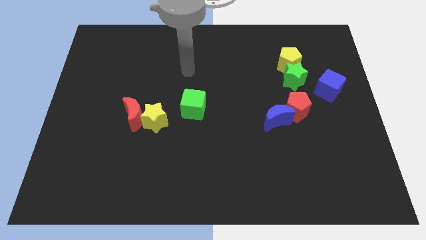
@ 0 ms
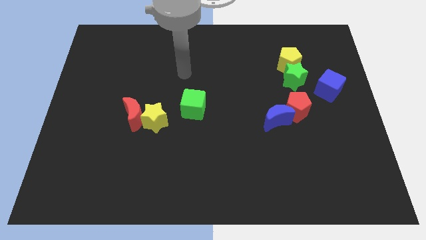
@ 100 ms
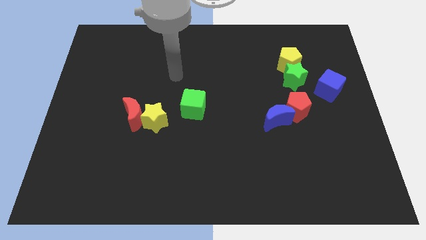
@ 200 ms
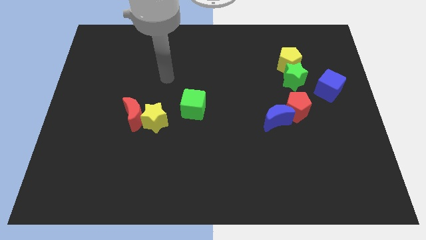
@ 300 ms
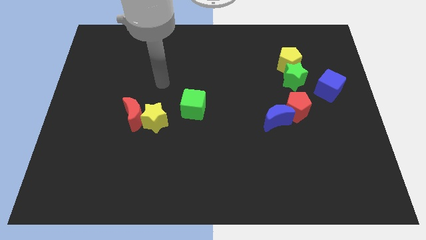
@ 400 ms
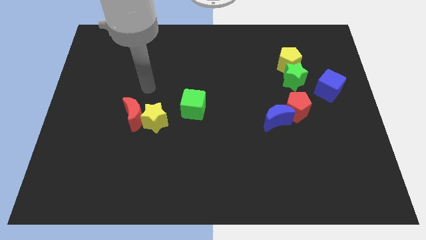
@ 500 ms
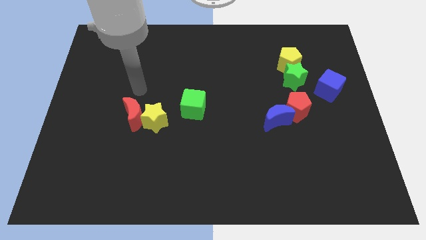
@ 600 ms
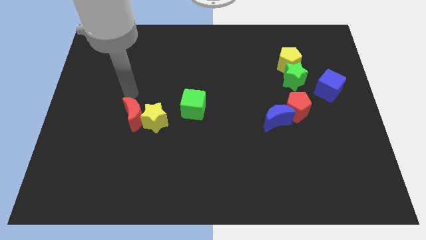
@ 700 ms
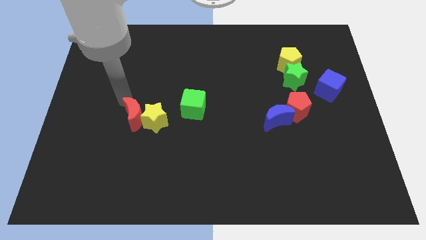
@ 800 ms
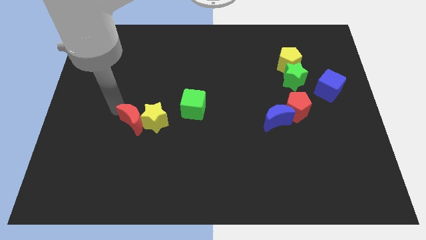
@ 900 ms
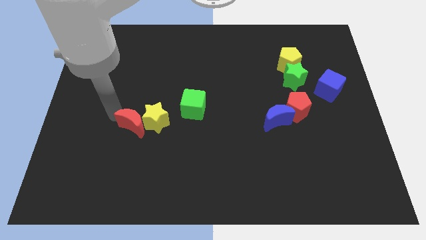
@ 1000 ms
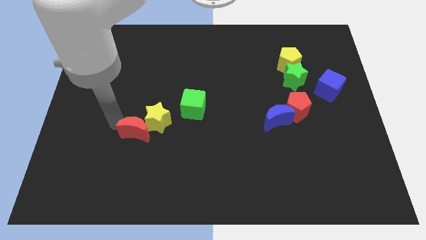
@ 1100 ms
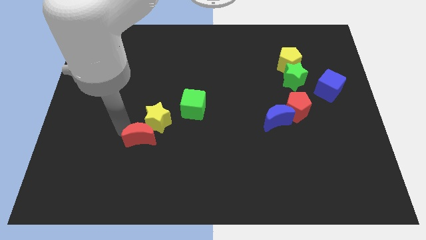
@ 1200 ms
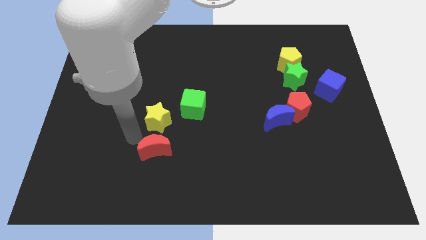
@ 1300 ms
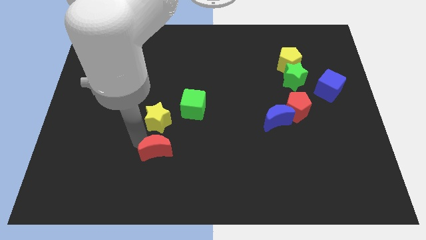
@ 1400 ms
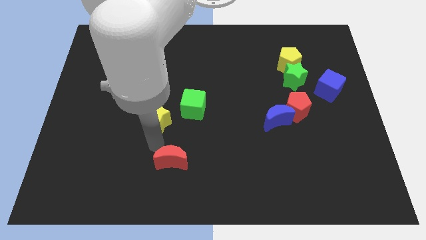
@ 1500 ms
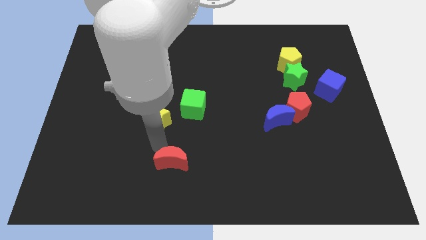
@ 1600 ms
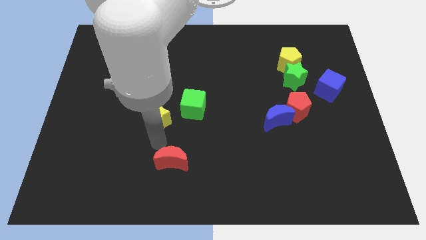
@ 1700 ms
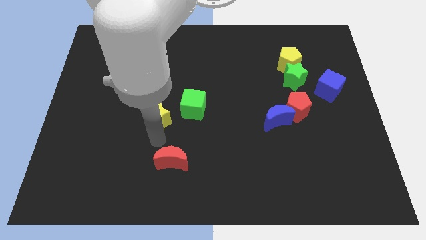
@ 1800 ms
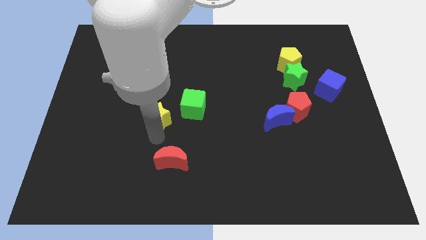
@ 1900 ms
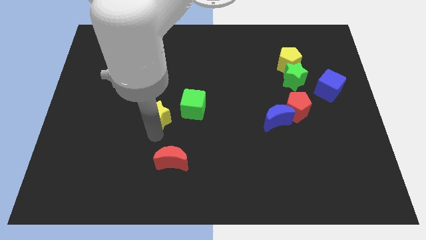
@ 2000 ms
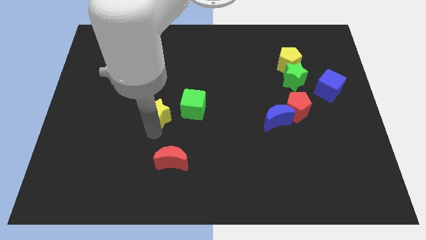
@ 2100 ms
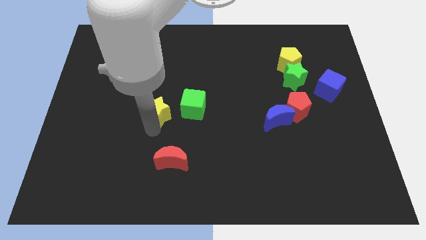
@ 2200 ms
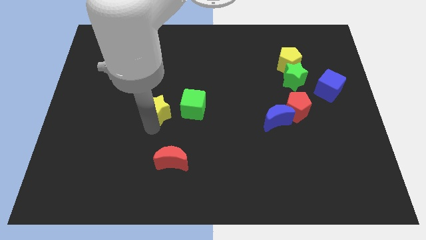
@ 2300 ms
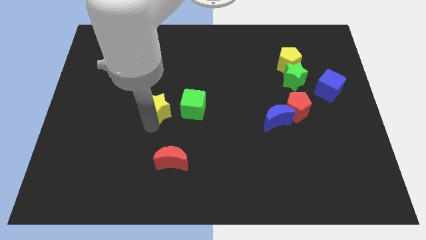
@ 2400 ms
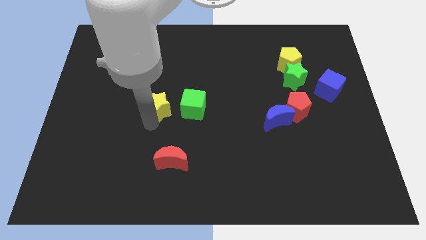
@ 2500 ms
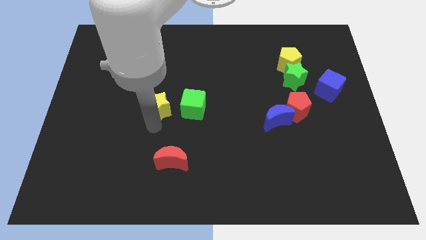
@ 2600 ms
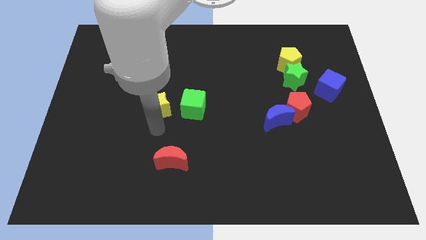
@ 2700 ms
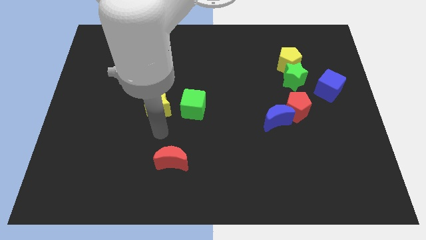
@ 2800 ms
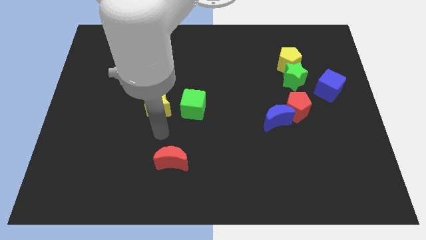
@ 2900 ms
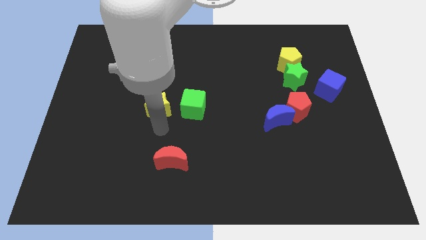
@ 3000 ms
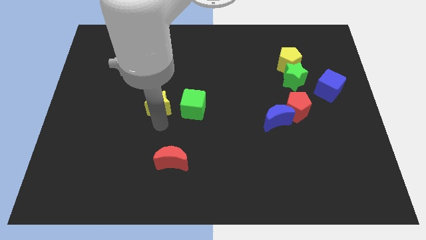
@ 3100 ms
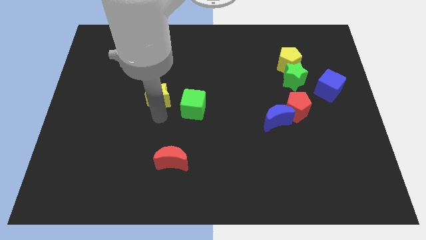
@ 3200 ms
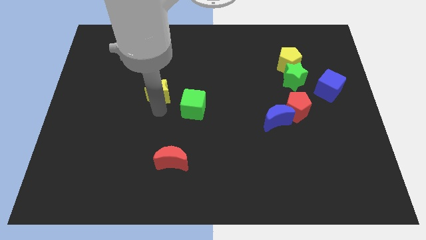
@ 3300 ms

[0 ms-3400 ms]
slightly move the yellow star up

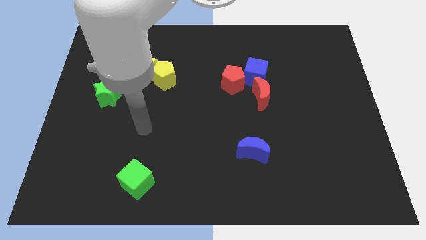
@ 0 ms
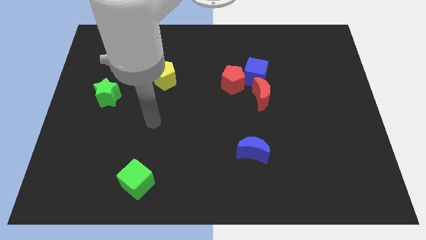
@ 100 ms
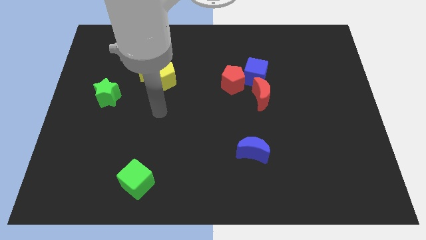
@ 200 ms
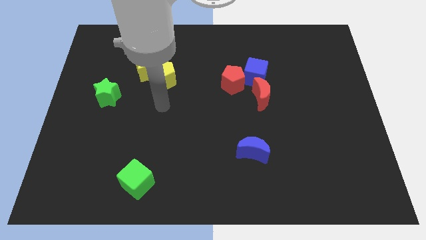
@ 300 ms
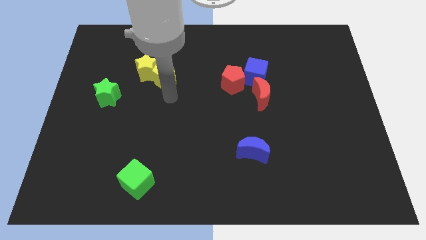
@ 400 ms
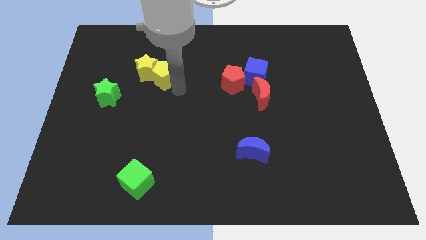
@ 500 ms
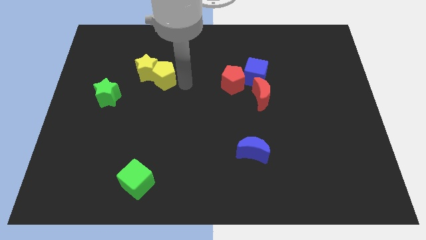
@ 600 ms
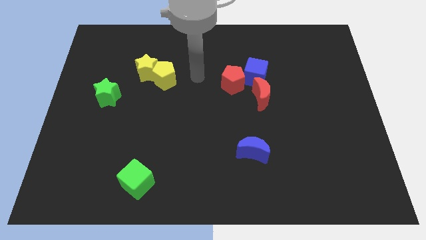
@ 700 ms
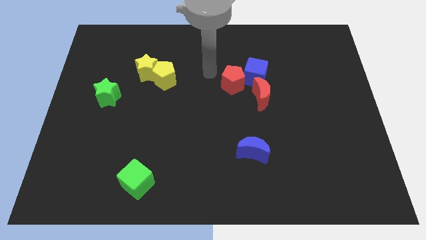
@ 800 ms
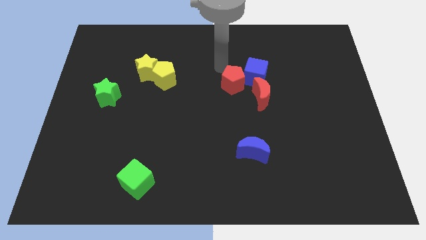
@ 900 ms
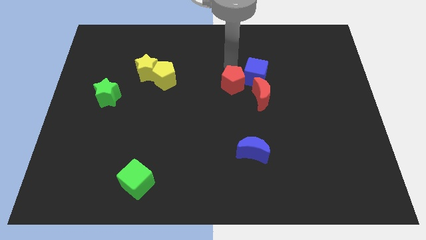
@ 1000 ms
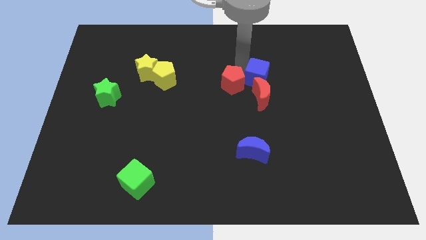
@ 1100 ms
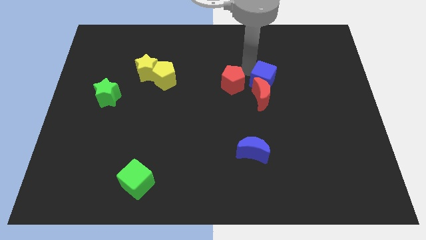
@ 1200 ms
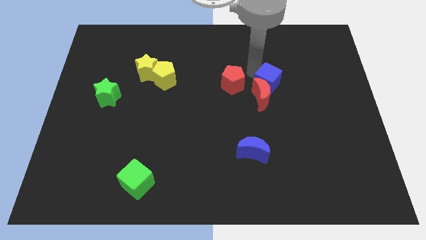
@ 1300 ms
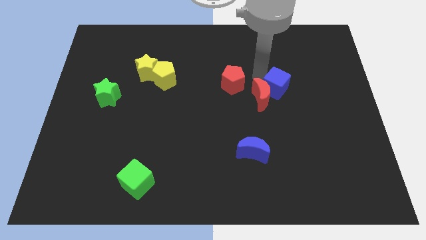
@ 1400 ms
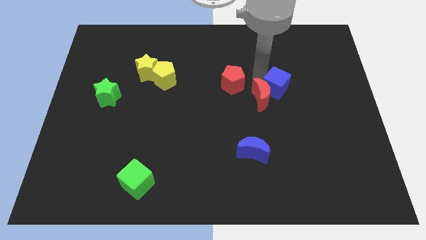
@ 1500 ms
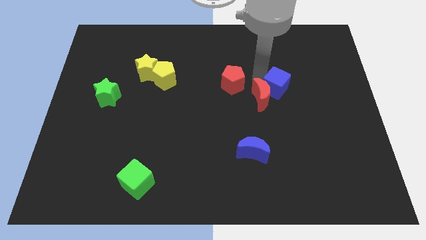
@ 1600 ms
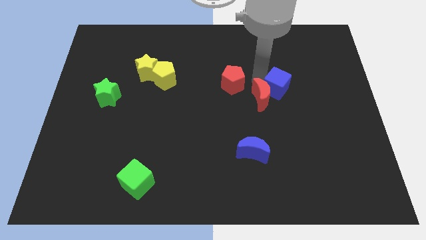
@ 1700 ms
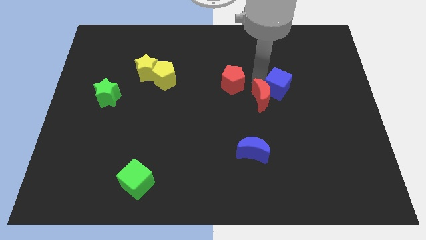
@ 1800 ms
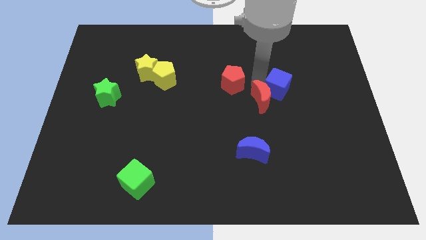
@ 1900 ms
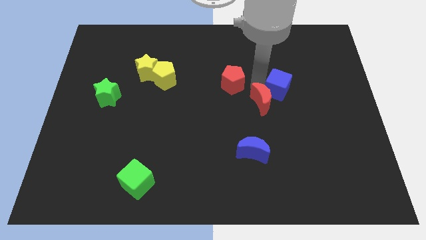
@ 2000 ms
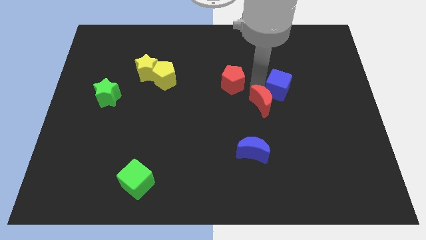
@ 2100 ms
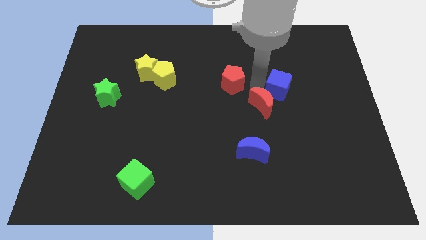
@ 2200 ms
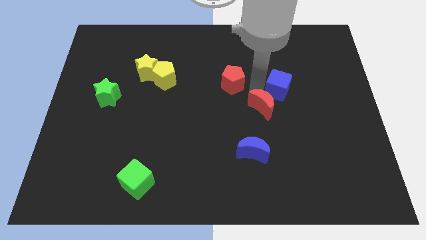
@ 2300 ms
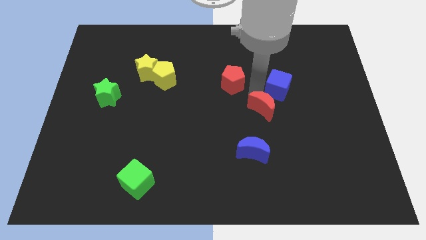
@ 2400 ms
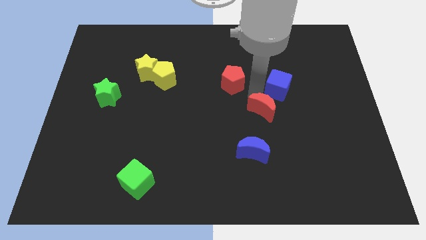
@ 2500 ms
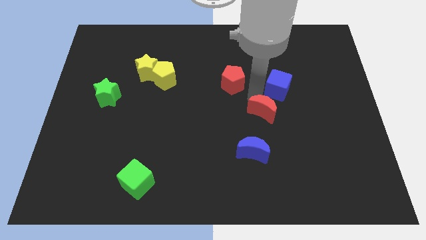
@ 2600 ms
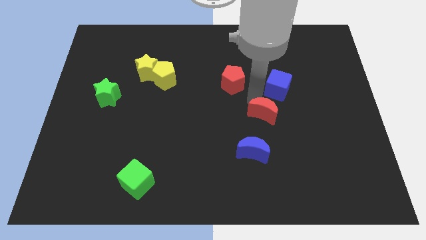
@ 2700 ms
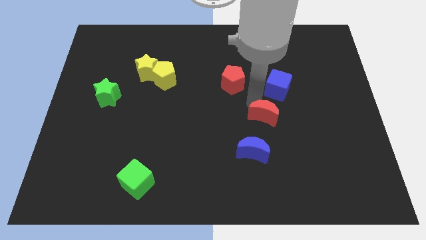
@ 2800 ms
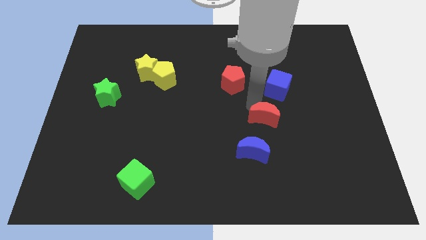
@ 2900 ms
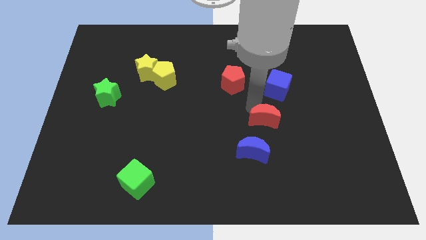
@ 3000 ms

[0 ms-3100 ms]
push the red moon a little bit downwards

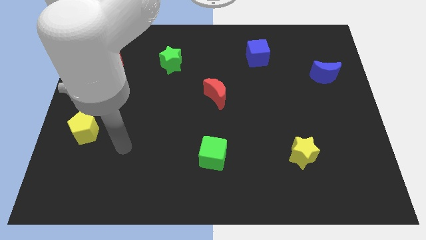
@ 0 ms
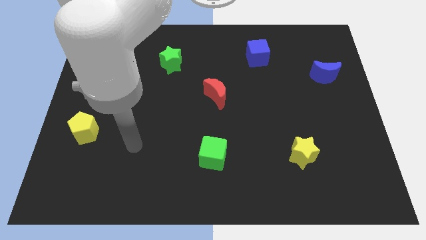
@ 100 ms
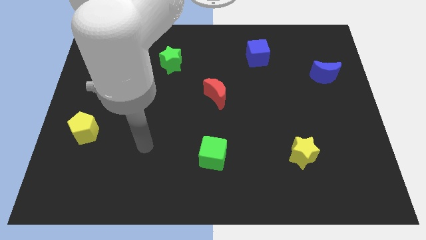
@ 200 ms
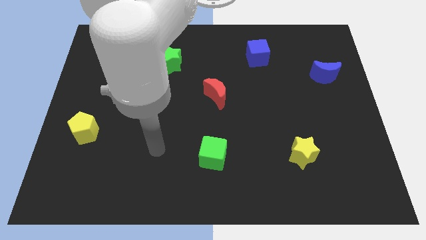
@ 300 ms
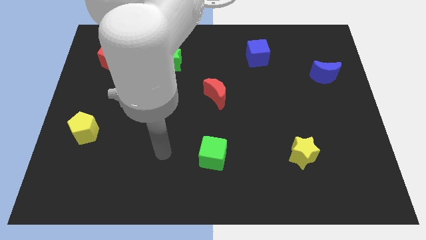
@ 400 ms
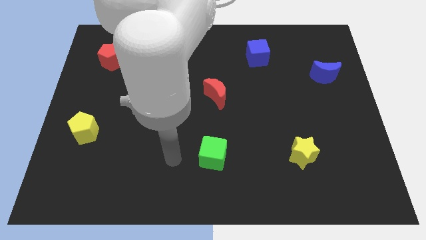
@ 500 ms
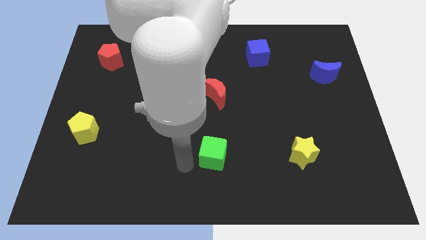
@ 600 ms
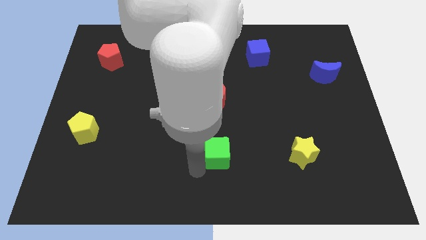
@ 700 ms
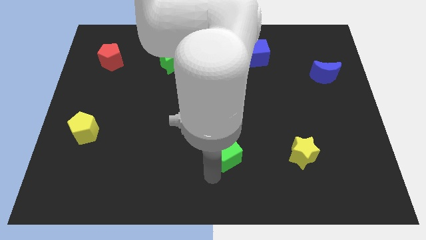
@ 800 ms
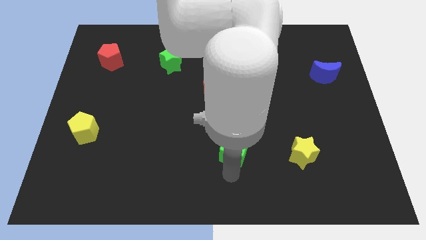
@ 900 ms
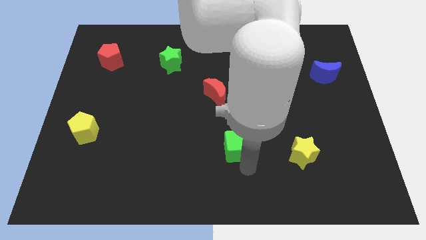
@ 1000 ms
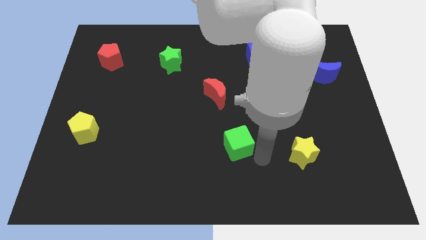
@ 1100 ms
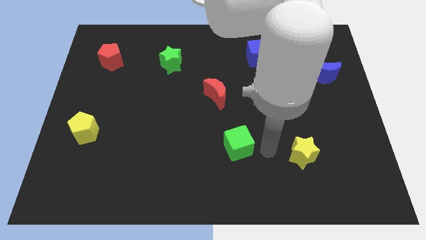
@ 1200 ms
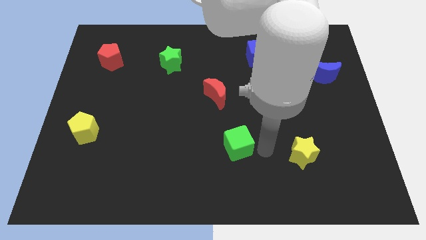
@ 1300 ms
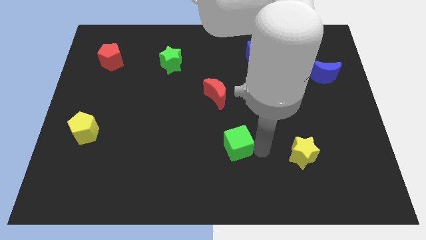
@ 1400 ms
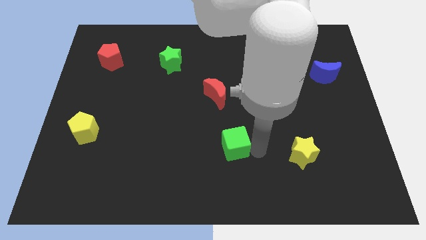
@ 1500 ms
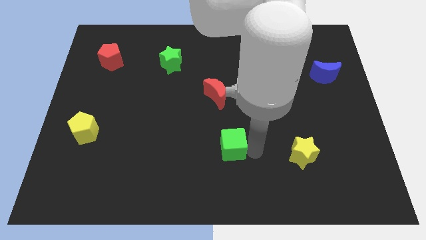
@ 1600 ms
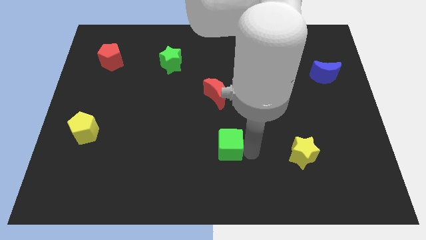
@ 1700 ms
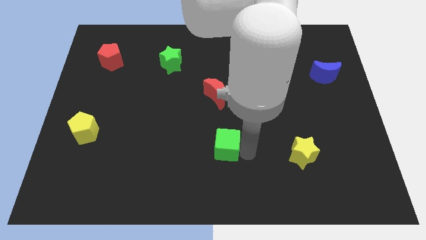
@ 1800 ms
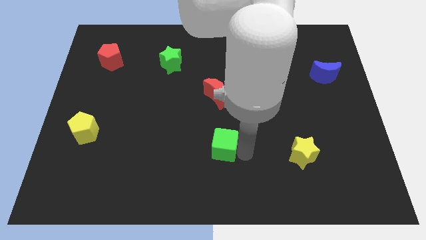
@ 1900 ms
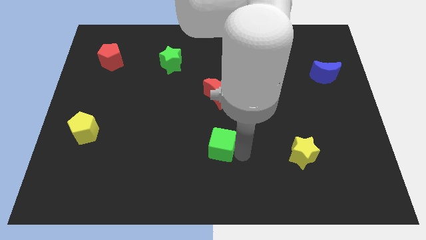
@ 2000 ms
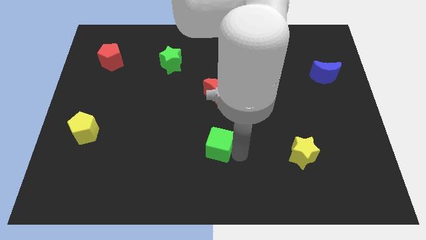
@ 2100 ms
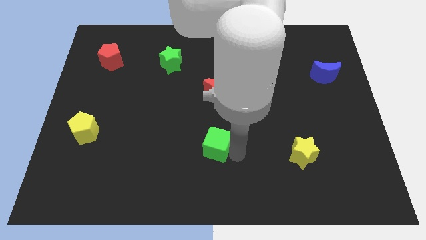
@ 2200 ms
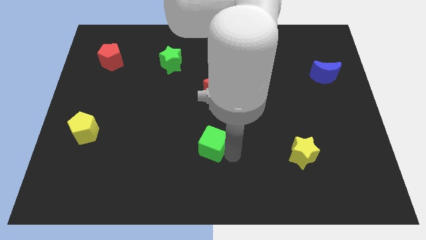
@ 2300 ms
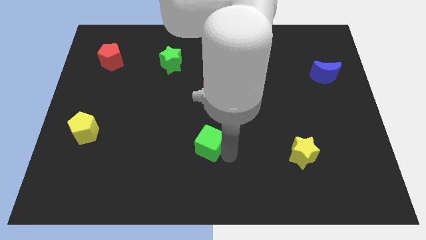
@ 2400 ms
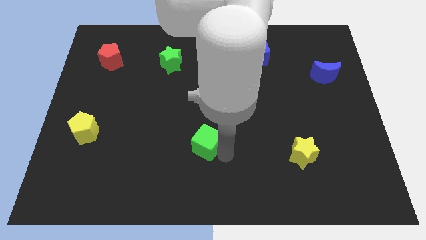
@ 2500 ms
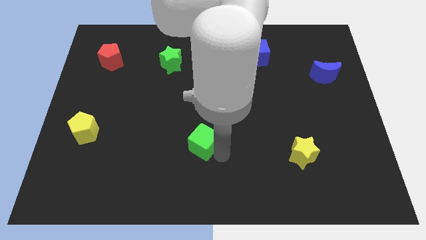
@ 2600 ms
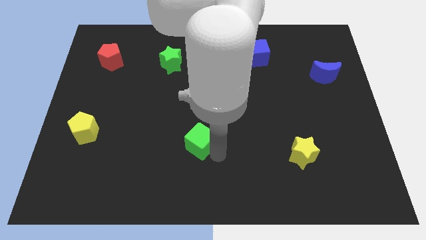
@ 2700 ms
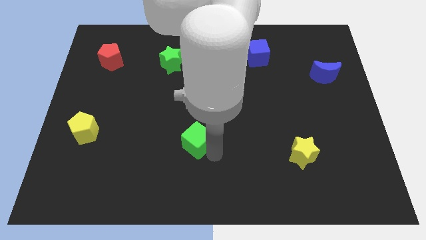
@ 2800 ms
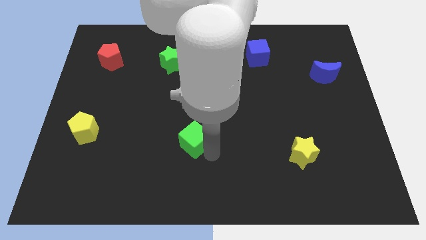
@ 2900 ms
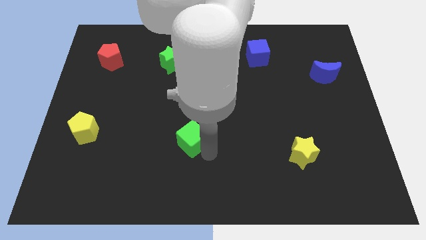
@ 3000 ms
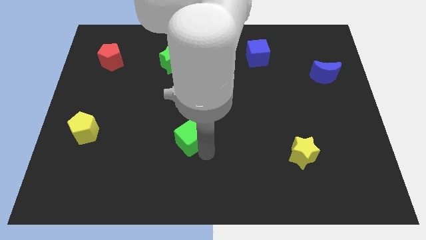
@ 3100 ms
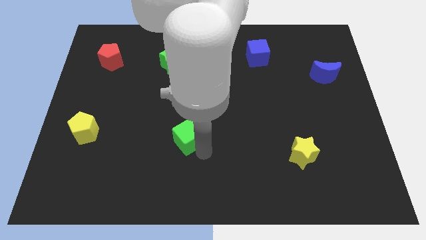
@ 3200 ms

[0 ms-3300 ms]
push the green cube upwards and to the left diagonally slightly
